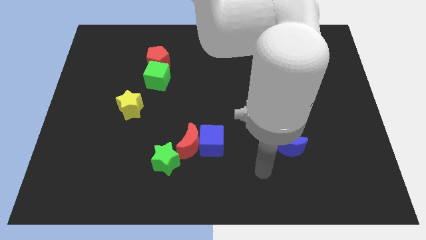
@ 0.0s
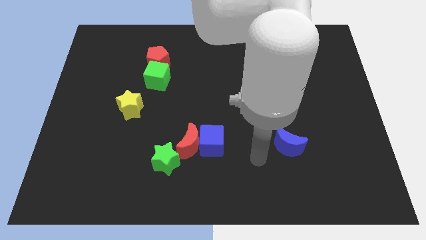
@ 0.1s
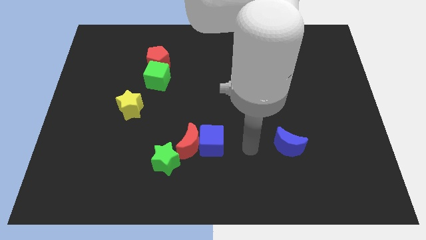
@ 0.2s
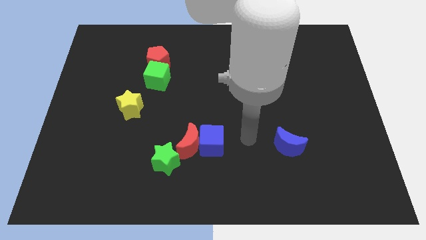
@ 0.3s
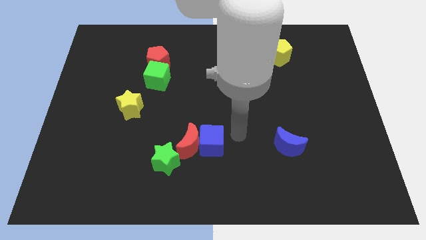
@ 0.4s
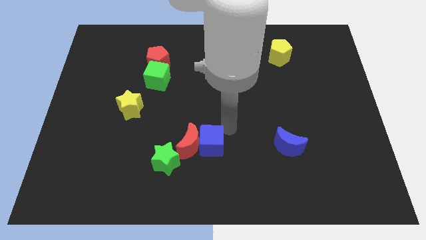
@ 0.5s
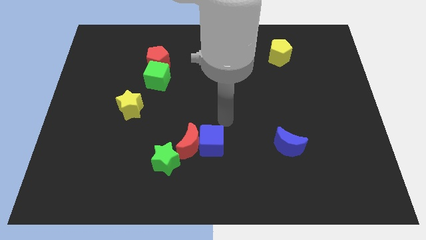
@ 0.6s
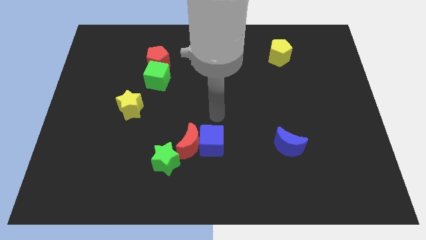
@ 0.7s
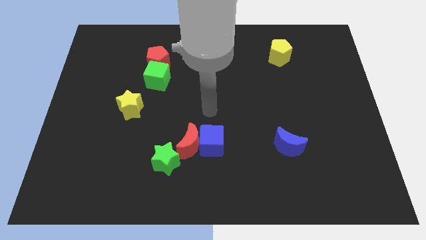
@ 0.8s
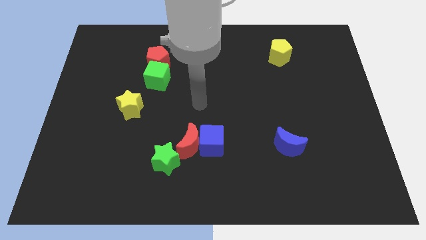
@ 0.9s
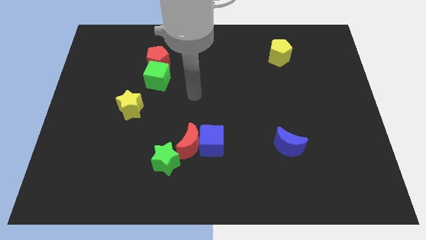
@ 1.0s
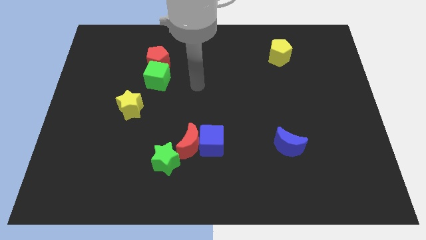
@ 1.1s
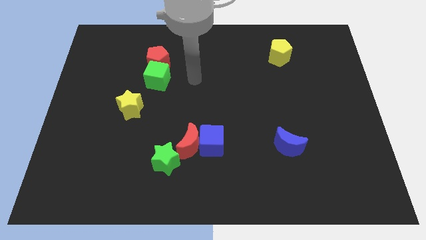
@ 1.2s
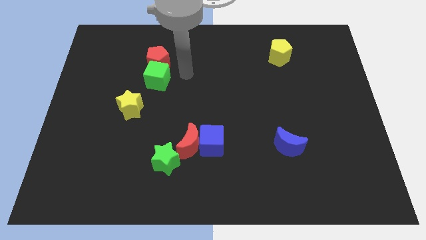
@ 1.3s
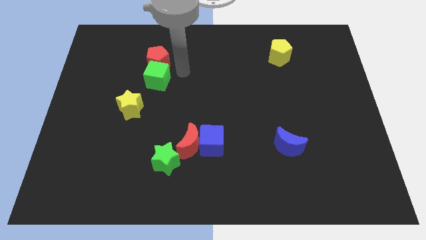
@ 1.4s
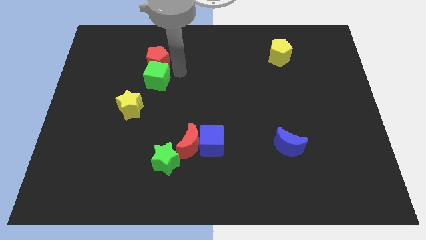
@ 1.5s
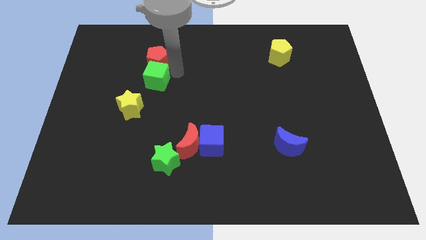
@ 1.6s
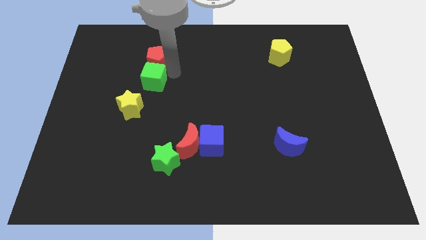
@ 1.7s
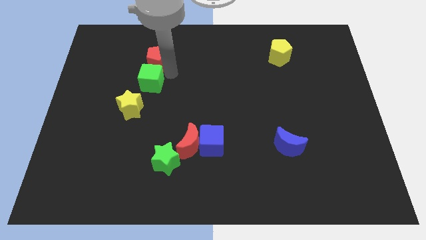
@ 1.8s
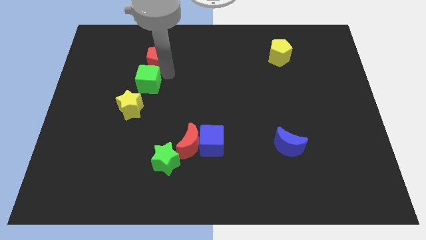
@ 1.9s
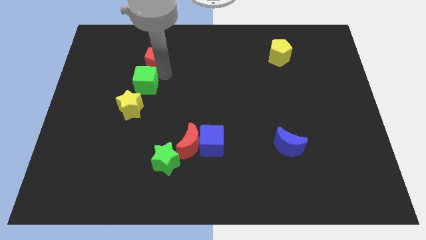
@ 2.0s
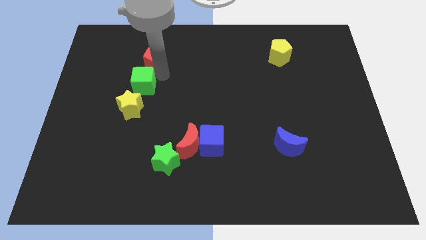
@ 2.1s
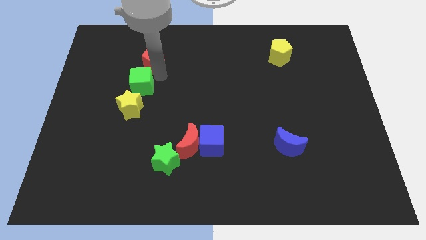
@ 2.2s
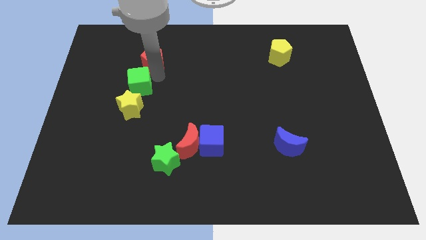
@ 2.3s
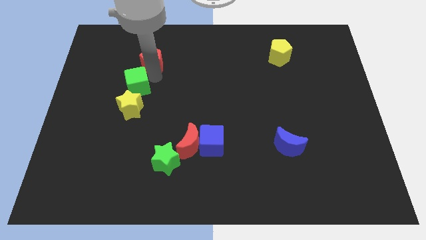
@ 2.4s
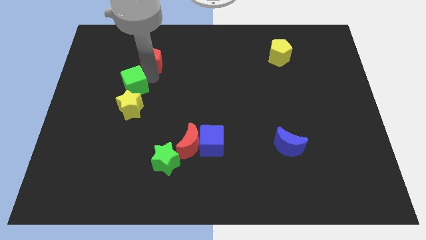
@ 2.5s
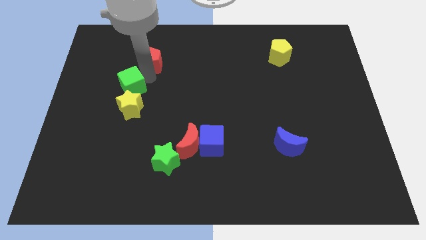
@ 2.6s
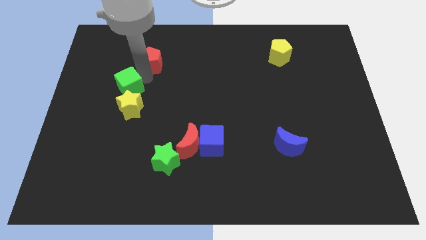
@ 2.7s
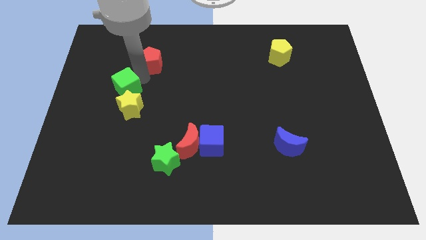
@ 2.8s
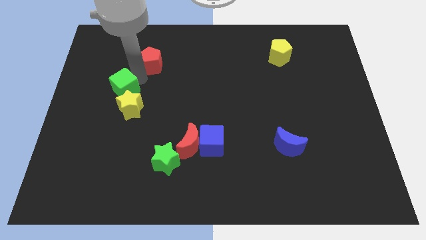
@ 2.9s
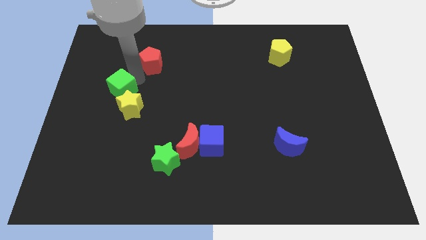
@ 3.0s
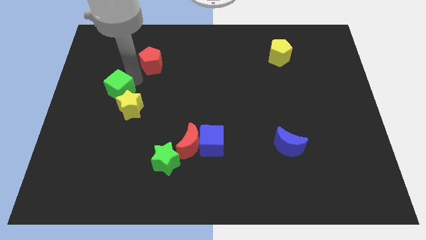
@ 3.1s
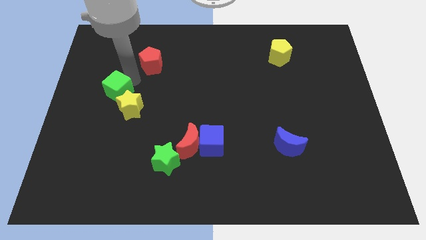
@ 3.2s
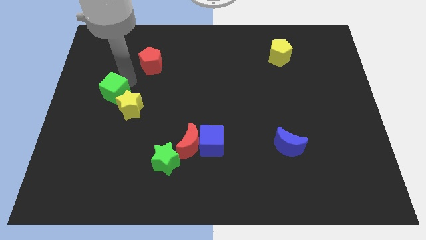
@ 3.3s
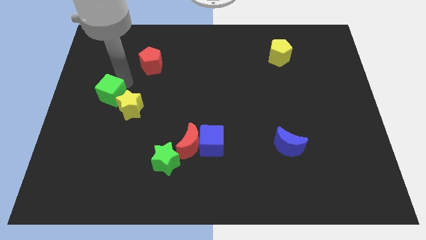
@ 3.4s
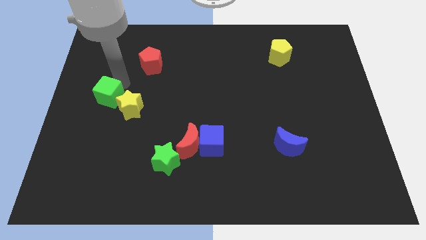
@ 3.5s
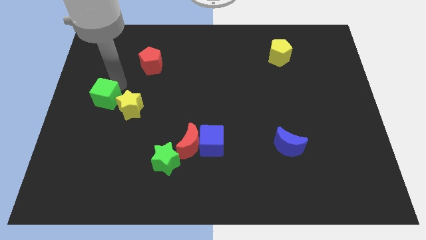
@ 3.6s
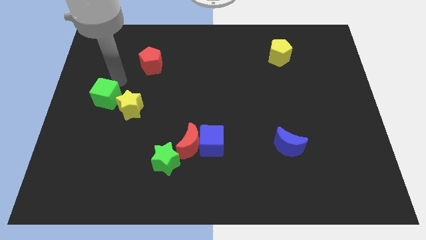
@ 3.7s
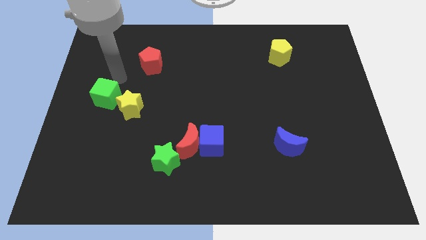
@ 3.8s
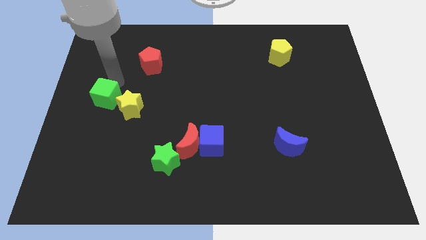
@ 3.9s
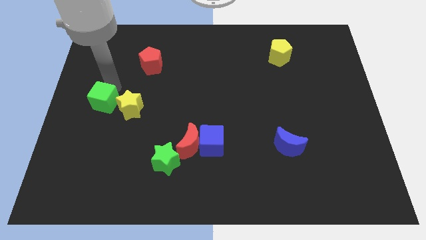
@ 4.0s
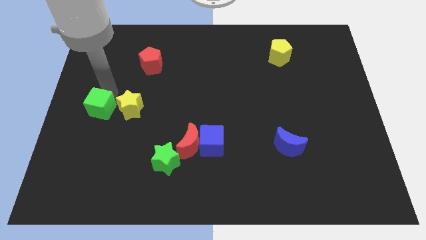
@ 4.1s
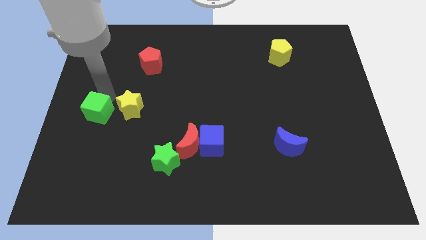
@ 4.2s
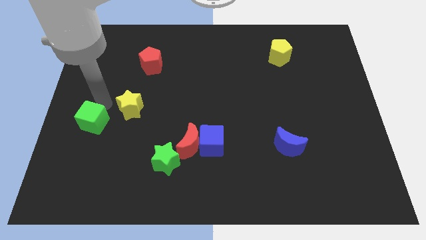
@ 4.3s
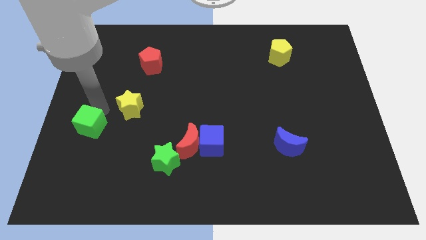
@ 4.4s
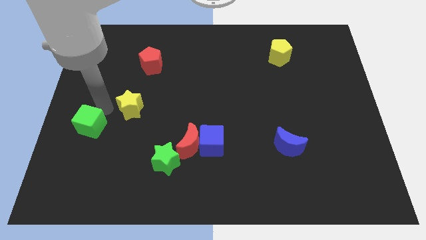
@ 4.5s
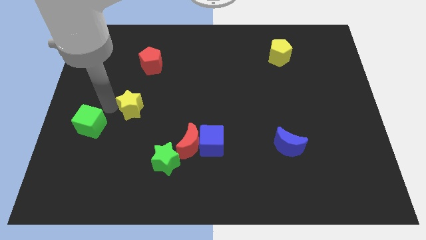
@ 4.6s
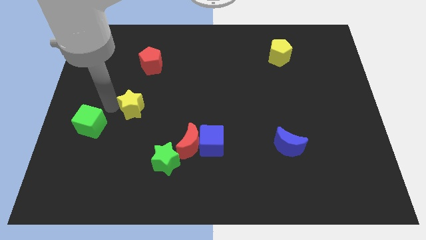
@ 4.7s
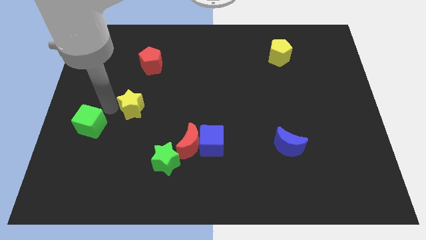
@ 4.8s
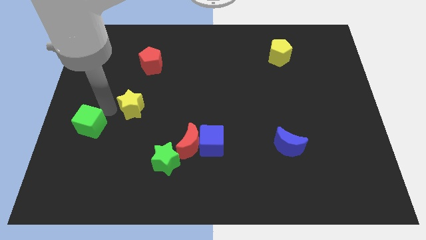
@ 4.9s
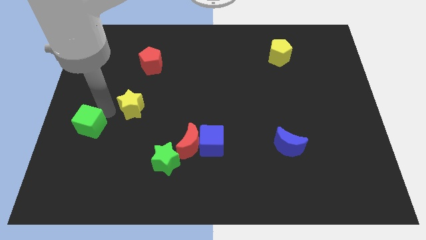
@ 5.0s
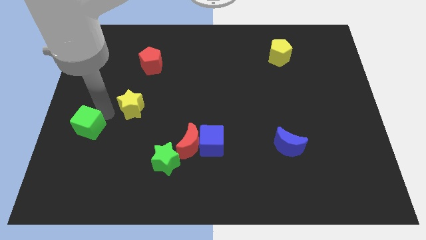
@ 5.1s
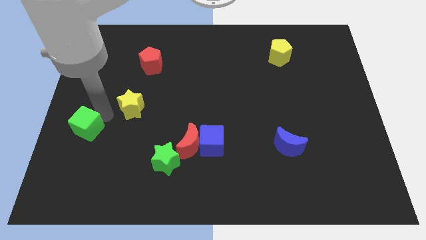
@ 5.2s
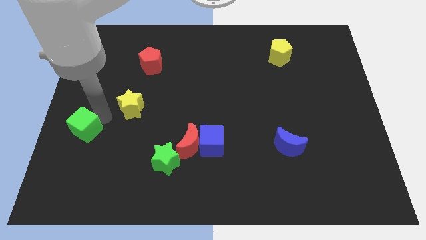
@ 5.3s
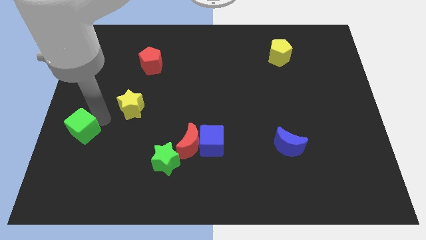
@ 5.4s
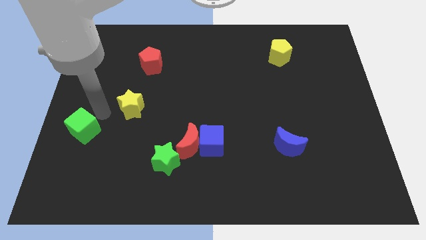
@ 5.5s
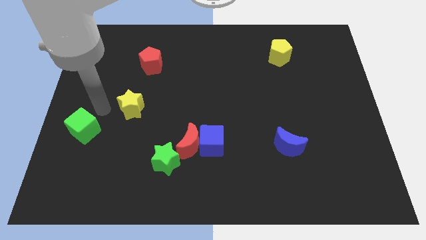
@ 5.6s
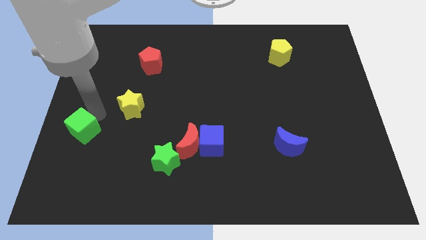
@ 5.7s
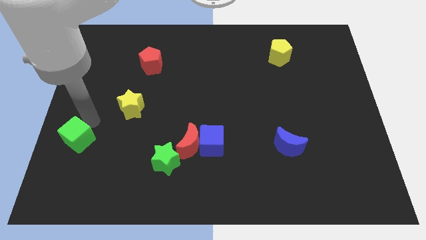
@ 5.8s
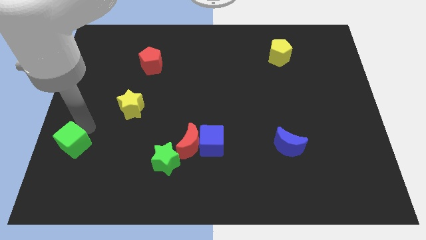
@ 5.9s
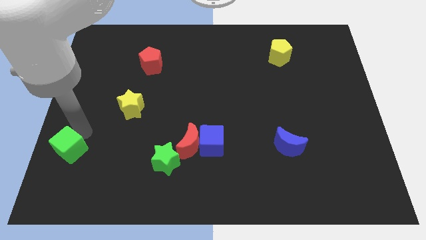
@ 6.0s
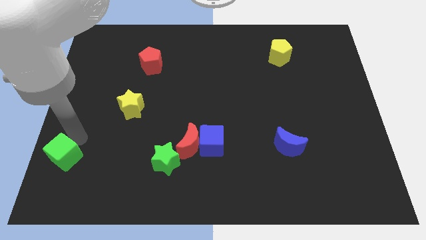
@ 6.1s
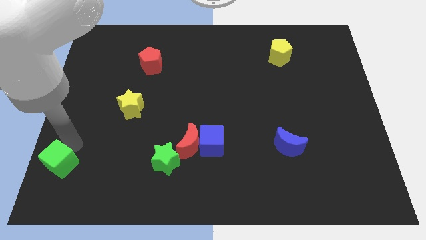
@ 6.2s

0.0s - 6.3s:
slide the green cube to the lower left corner
